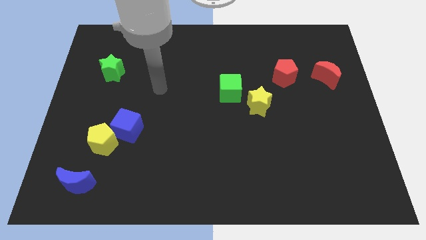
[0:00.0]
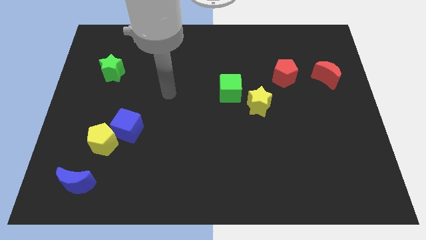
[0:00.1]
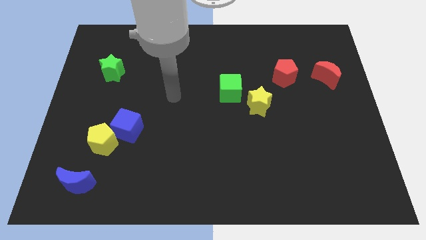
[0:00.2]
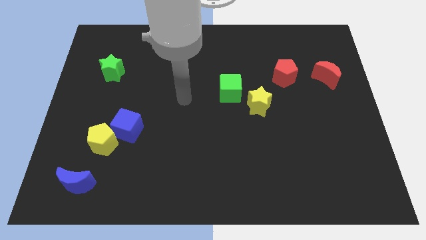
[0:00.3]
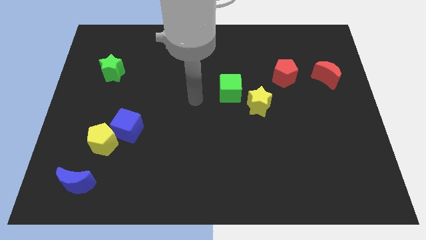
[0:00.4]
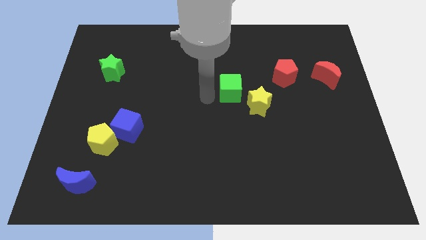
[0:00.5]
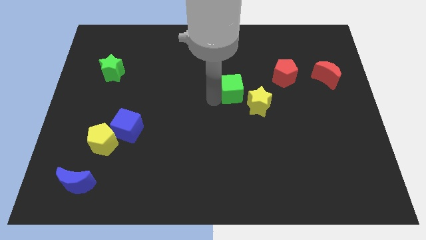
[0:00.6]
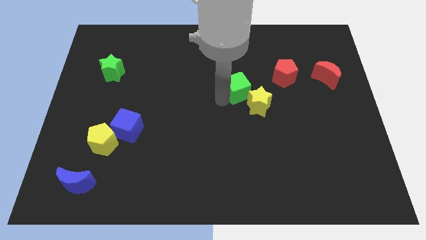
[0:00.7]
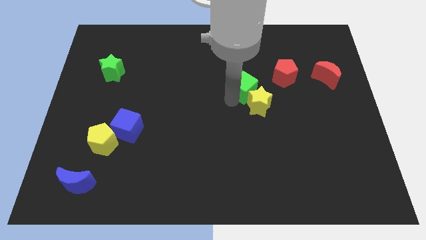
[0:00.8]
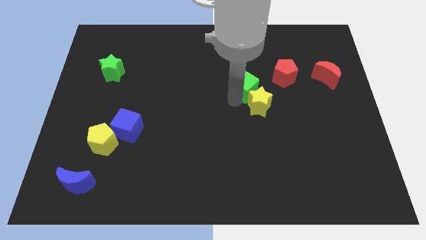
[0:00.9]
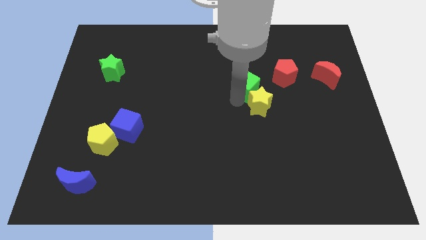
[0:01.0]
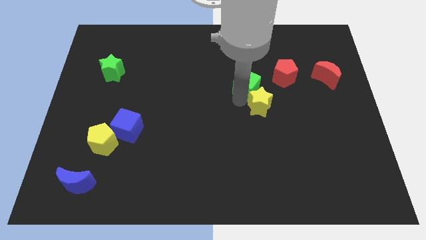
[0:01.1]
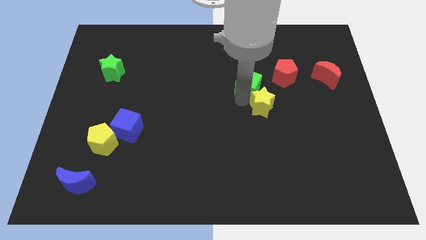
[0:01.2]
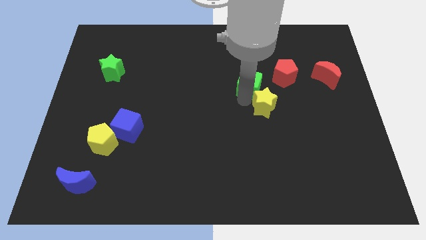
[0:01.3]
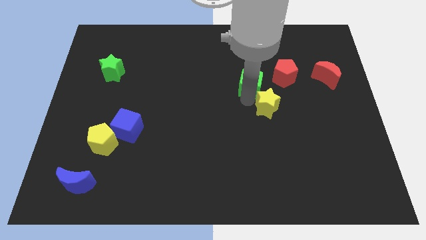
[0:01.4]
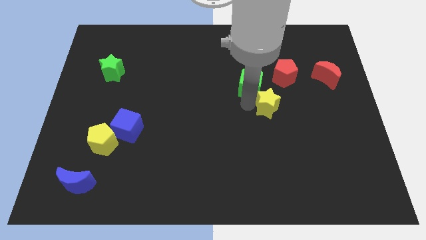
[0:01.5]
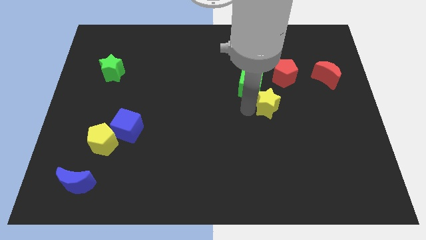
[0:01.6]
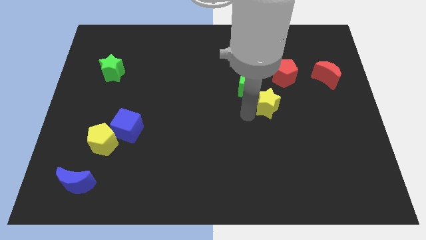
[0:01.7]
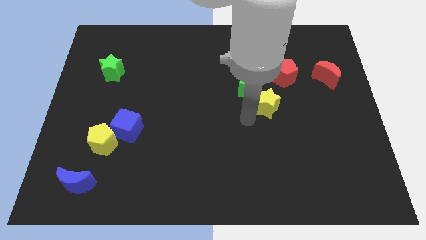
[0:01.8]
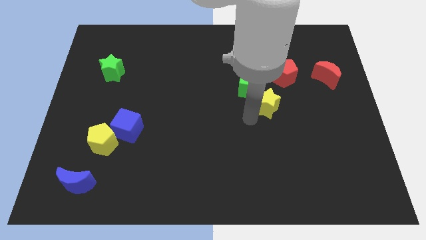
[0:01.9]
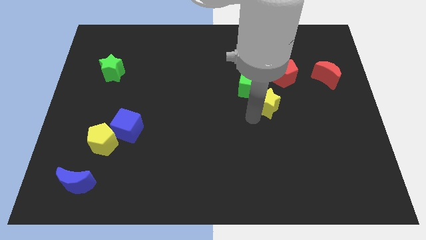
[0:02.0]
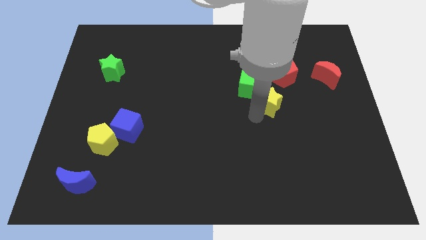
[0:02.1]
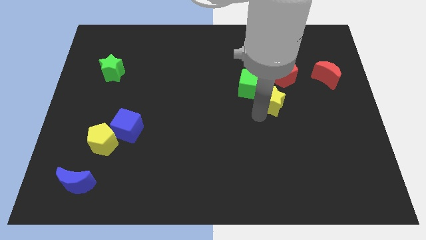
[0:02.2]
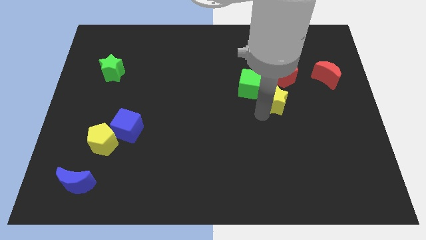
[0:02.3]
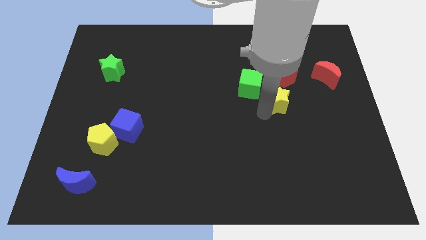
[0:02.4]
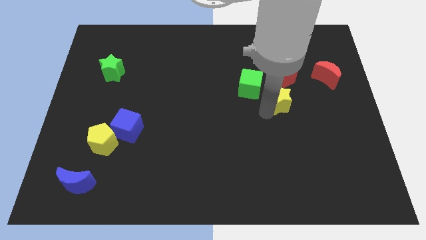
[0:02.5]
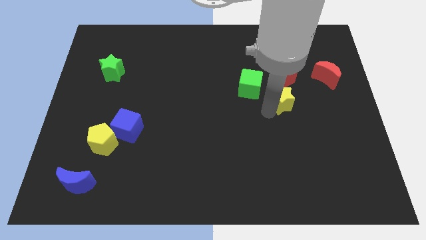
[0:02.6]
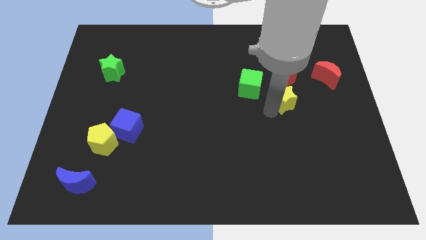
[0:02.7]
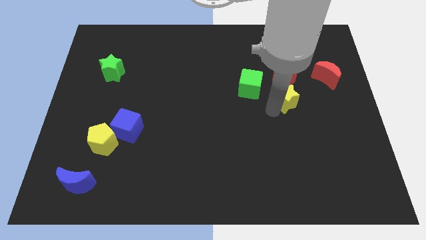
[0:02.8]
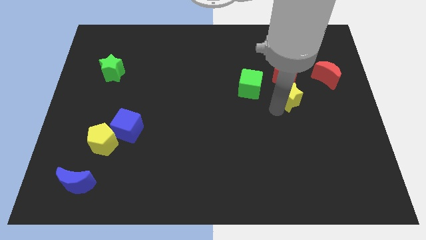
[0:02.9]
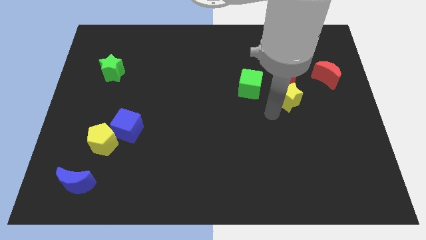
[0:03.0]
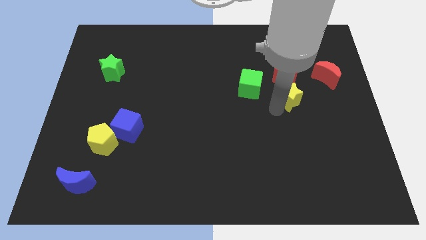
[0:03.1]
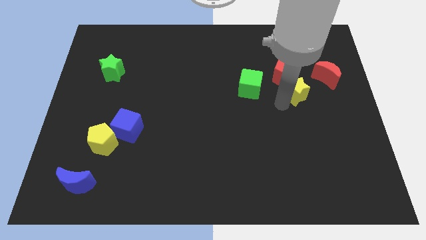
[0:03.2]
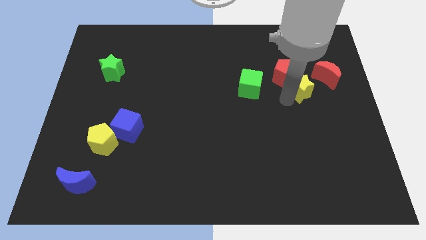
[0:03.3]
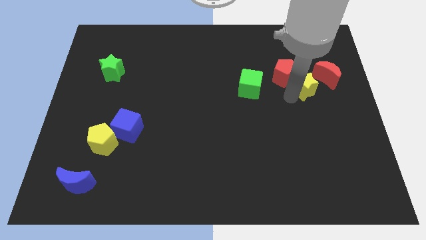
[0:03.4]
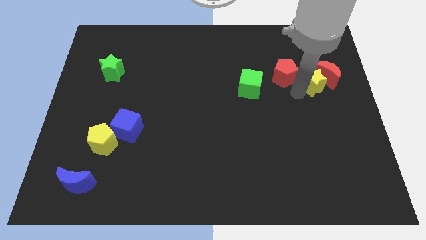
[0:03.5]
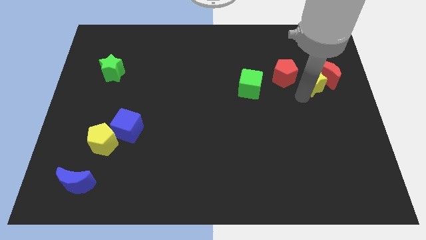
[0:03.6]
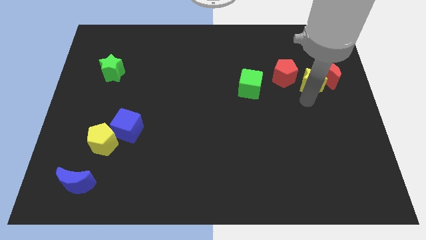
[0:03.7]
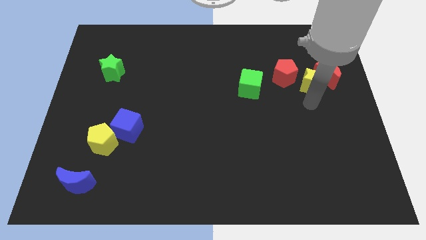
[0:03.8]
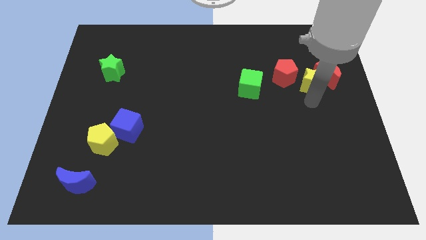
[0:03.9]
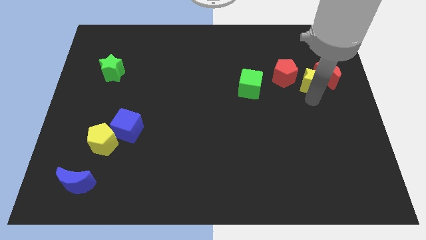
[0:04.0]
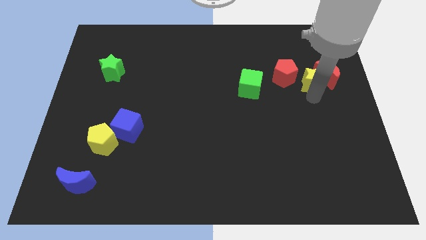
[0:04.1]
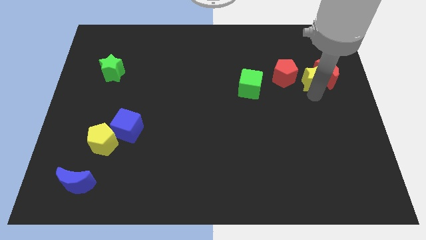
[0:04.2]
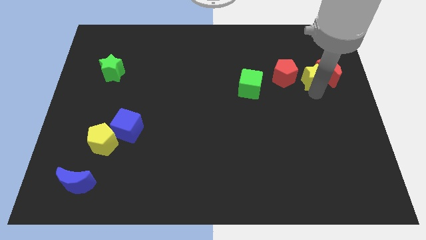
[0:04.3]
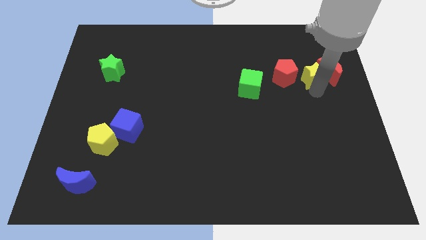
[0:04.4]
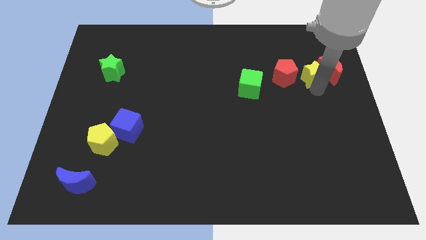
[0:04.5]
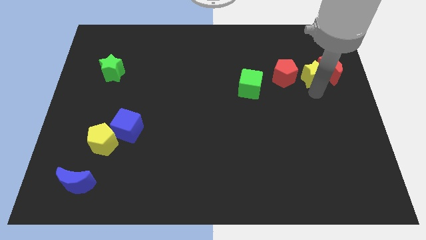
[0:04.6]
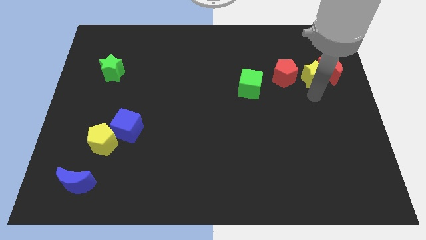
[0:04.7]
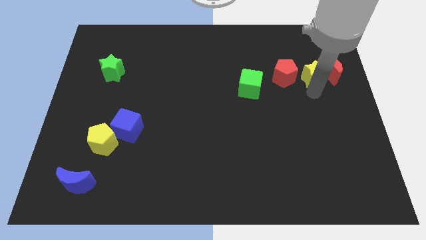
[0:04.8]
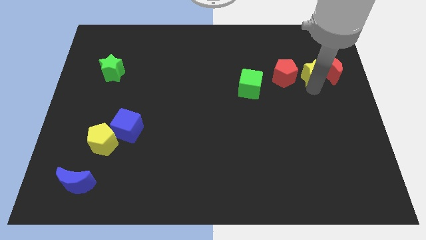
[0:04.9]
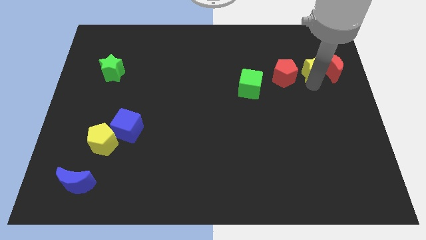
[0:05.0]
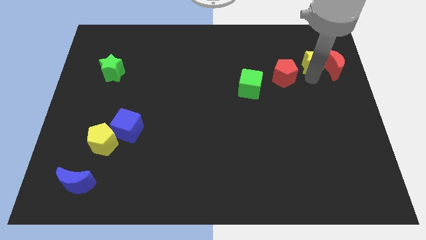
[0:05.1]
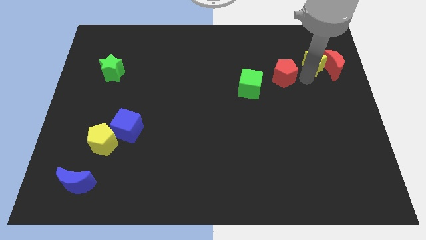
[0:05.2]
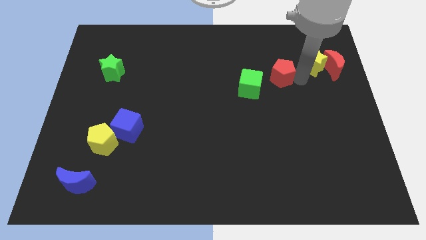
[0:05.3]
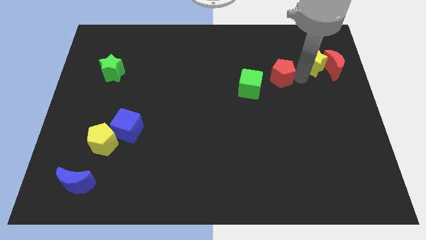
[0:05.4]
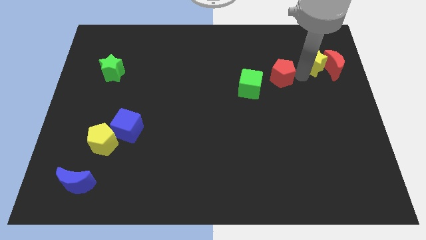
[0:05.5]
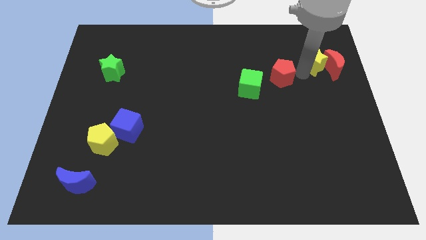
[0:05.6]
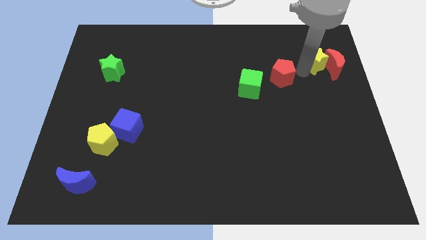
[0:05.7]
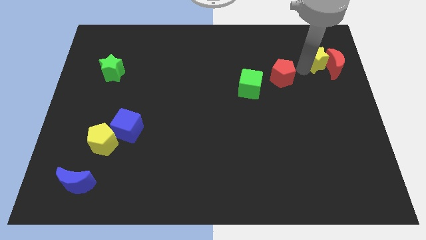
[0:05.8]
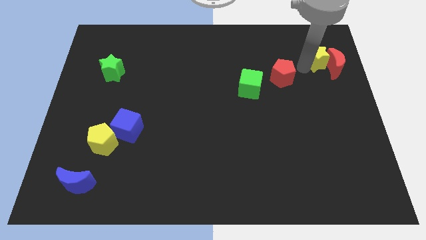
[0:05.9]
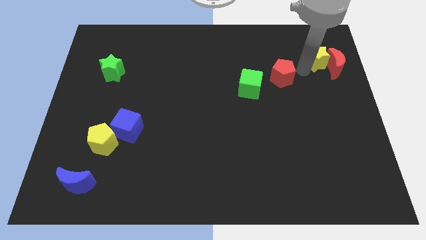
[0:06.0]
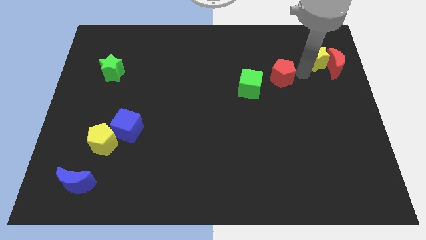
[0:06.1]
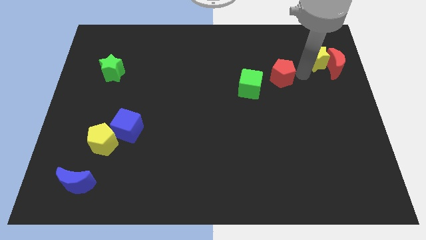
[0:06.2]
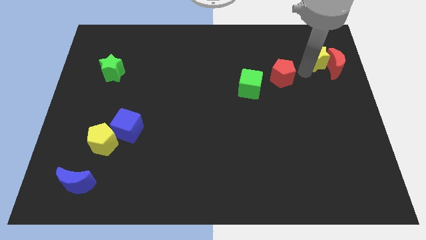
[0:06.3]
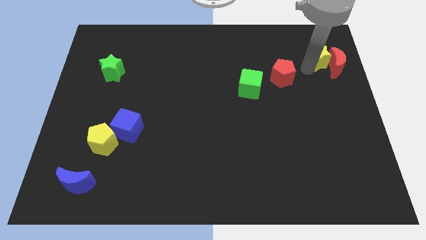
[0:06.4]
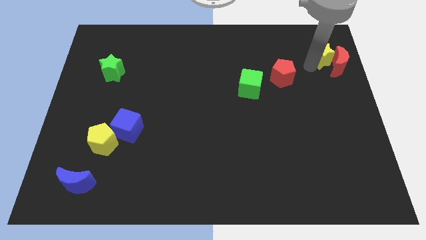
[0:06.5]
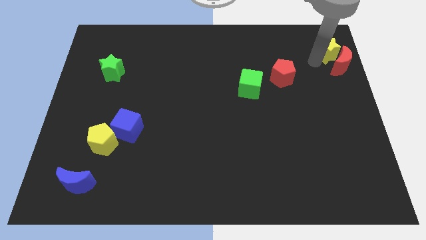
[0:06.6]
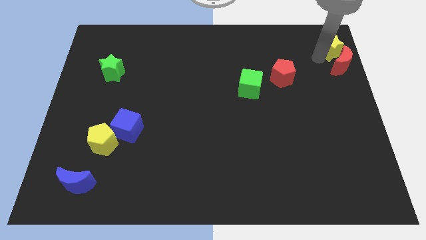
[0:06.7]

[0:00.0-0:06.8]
slide the yellow star to the top right corner
